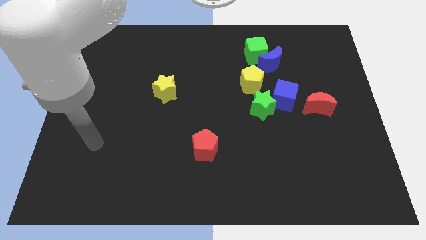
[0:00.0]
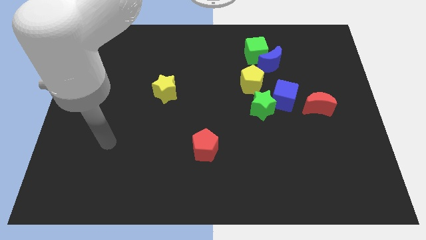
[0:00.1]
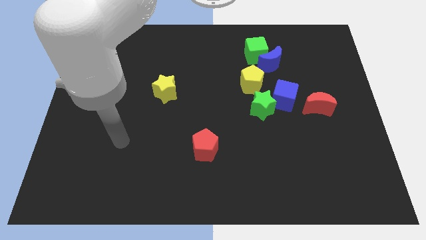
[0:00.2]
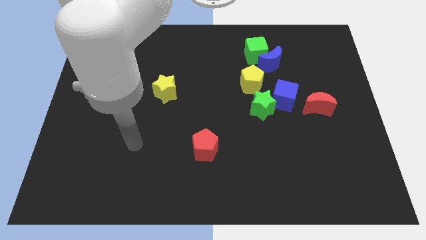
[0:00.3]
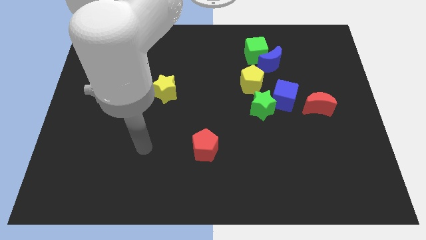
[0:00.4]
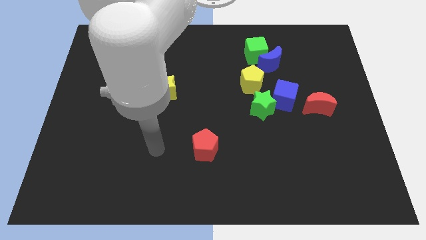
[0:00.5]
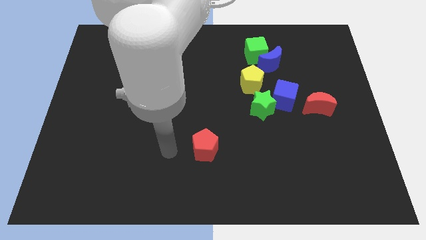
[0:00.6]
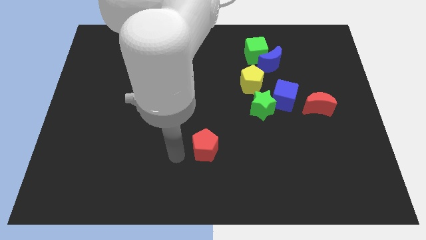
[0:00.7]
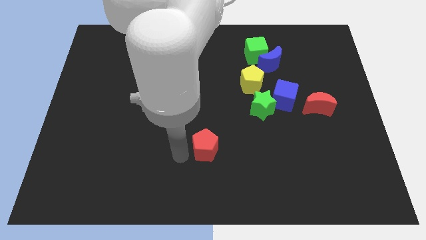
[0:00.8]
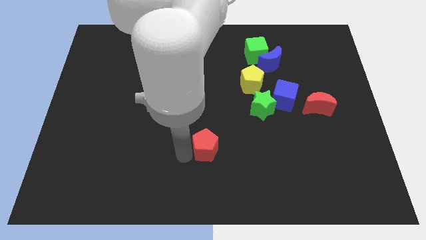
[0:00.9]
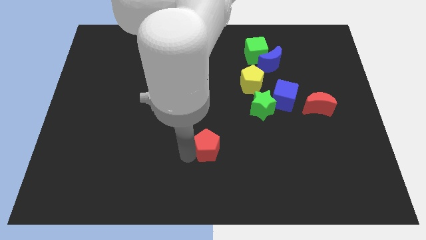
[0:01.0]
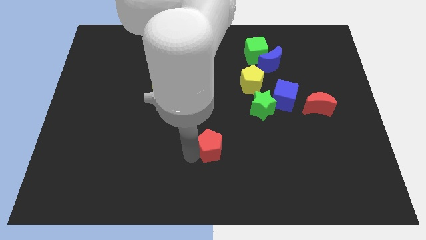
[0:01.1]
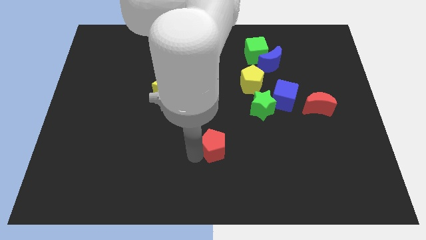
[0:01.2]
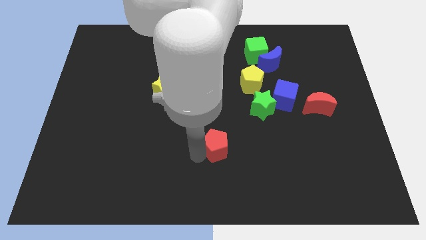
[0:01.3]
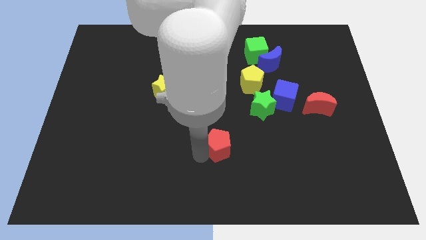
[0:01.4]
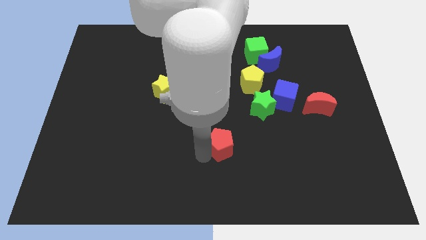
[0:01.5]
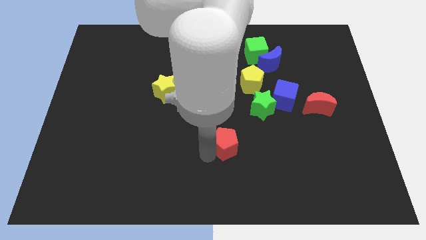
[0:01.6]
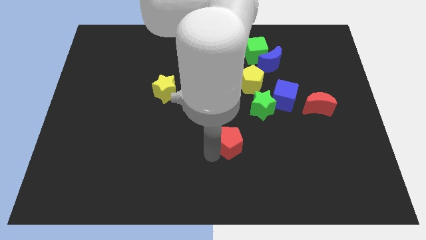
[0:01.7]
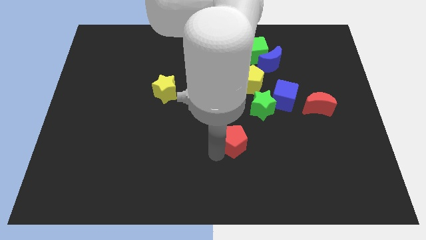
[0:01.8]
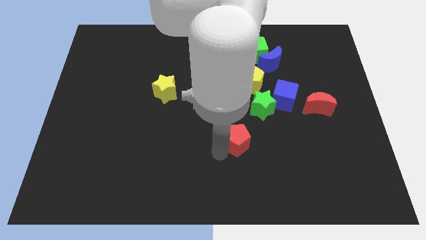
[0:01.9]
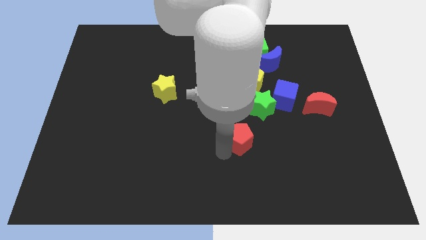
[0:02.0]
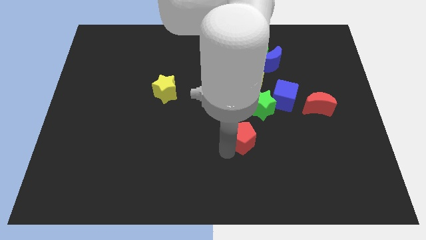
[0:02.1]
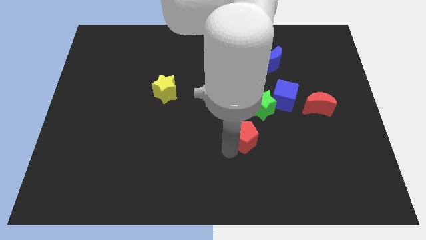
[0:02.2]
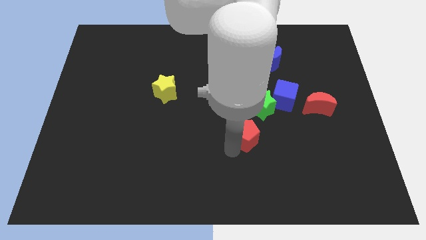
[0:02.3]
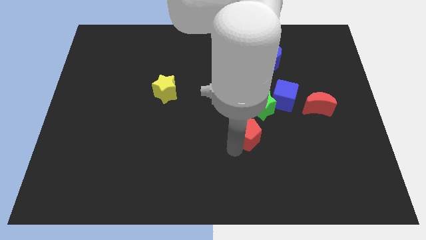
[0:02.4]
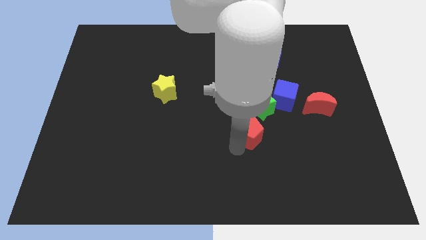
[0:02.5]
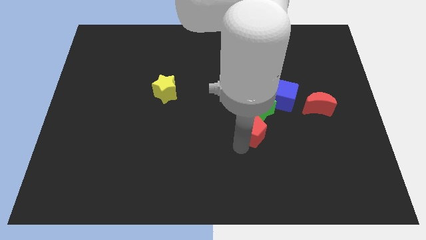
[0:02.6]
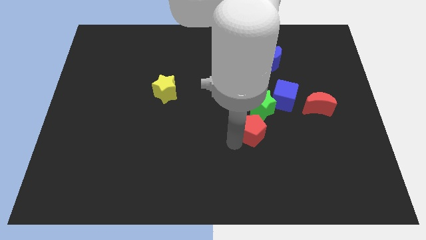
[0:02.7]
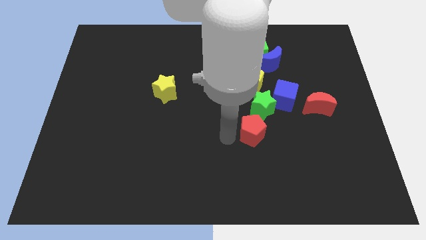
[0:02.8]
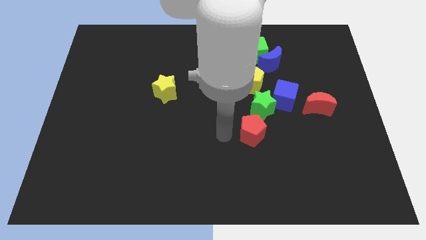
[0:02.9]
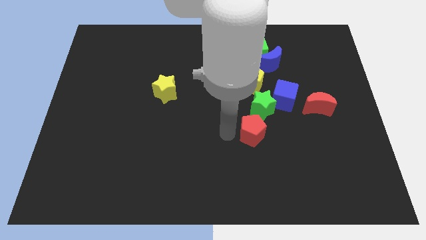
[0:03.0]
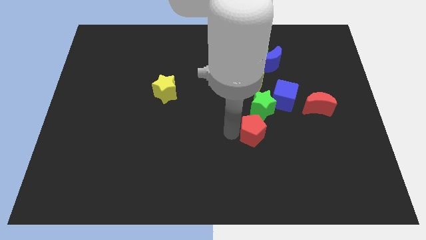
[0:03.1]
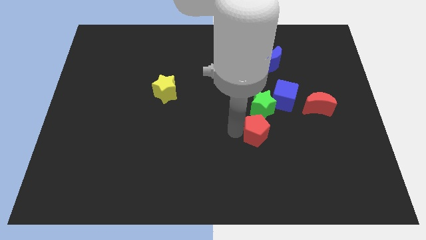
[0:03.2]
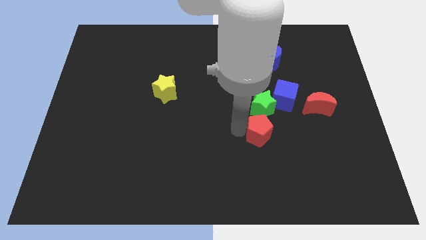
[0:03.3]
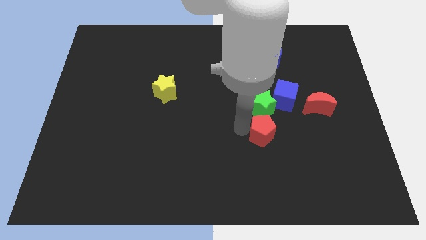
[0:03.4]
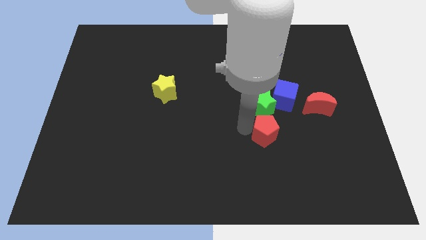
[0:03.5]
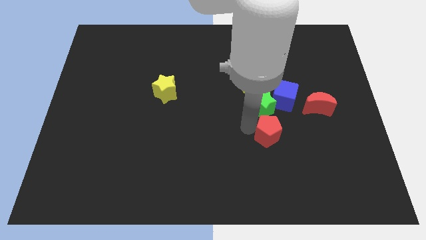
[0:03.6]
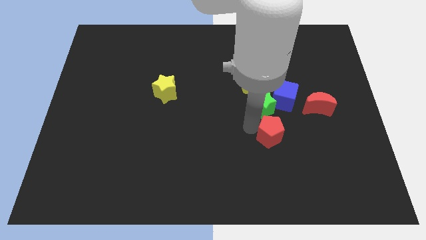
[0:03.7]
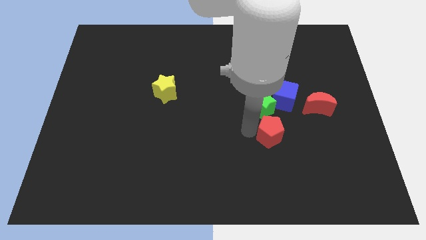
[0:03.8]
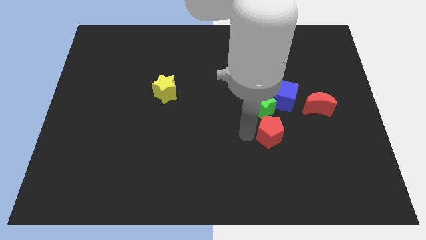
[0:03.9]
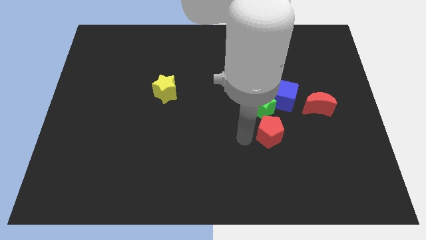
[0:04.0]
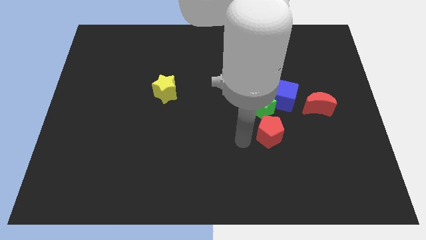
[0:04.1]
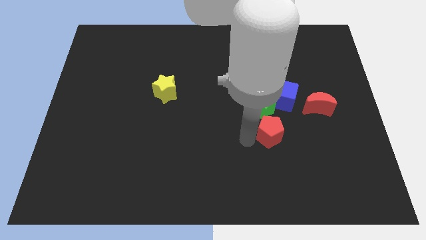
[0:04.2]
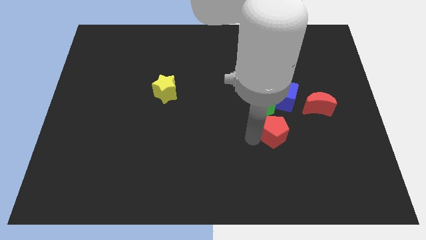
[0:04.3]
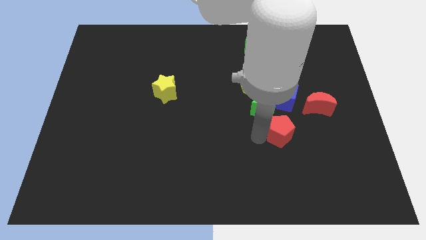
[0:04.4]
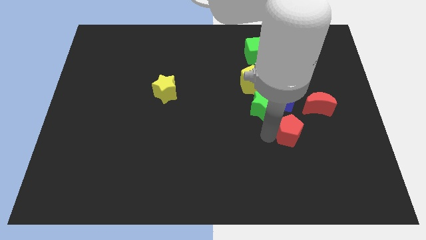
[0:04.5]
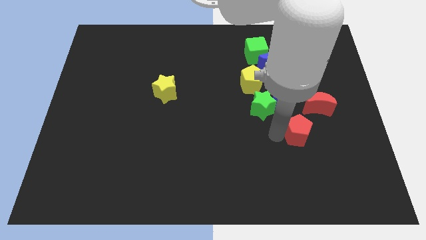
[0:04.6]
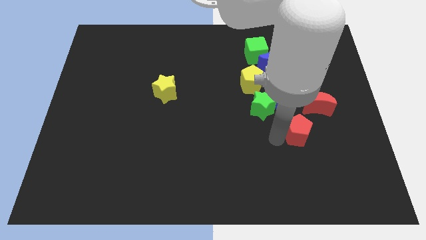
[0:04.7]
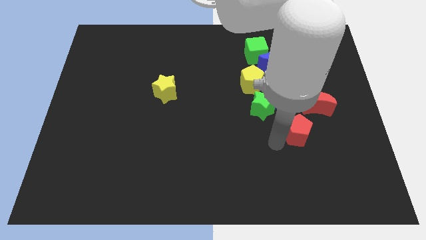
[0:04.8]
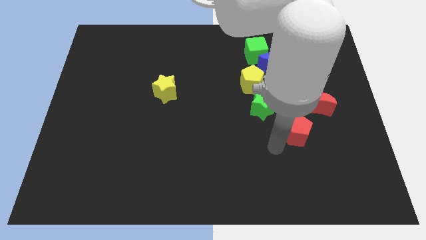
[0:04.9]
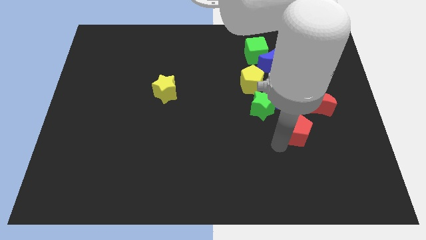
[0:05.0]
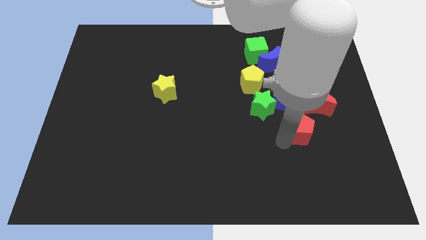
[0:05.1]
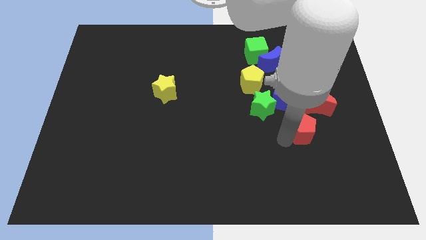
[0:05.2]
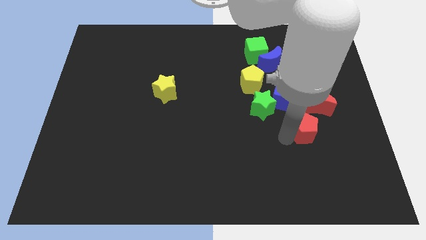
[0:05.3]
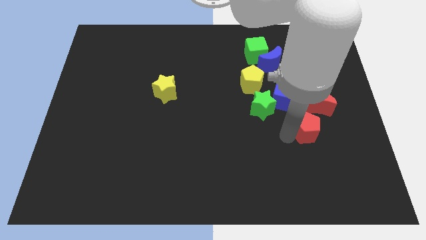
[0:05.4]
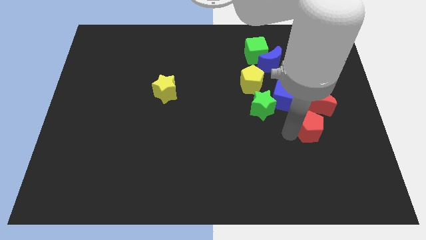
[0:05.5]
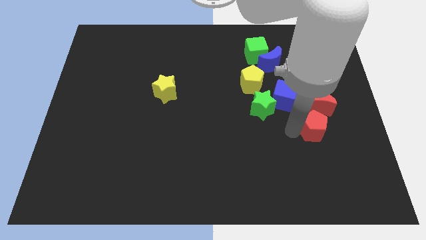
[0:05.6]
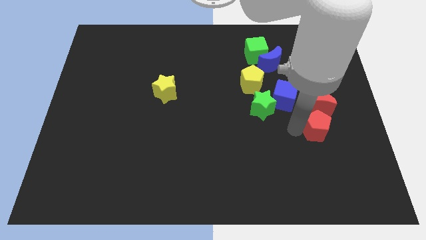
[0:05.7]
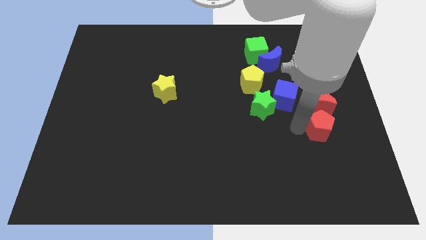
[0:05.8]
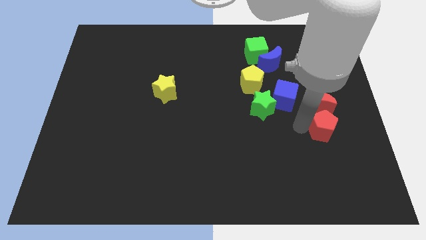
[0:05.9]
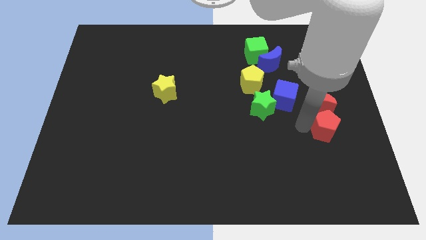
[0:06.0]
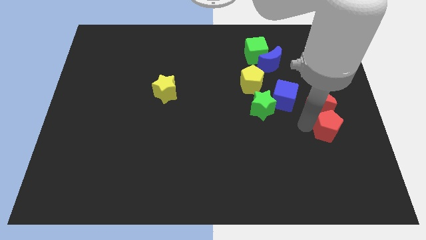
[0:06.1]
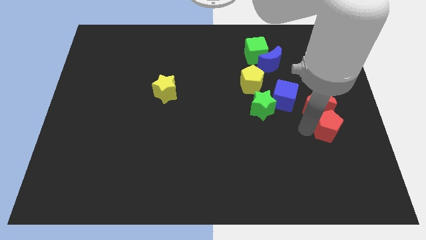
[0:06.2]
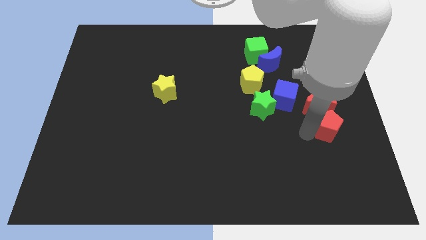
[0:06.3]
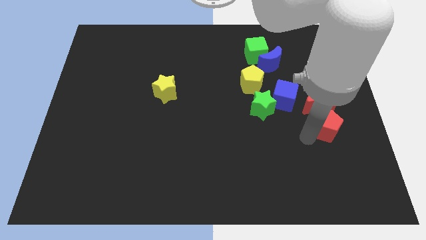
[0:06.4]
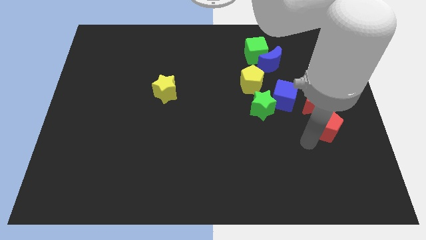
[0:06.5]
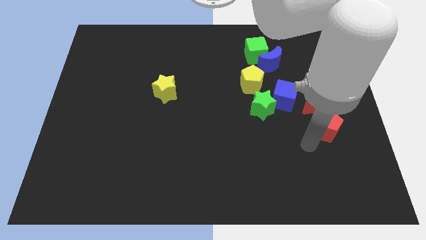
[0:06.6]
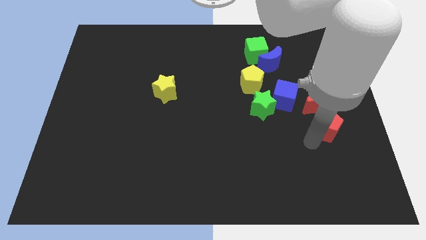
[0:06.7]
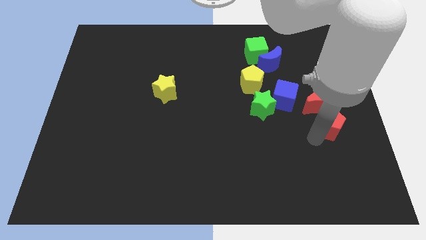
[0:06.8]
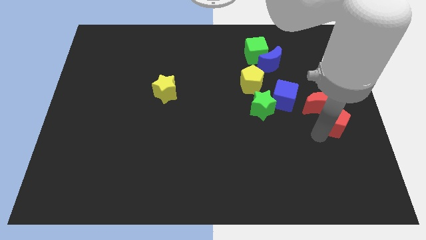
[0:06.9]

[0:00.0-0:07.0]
slide the red pentagon to the right side
